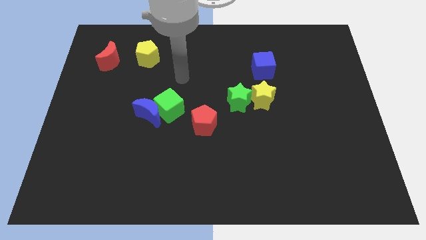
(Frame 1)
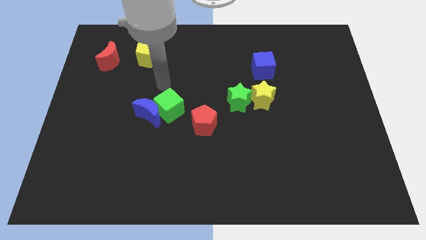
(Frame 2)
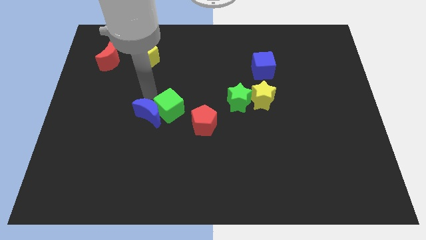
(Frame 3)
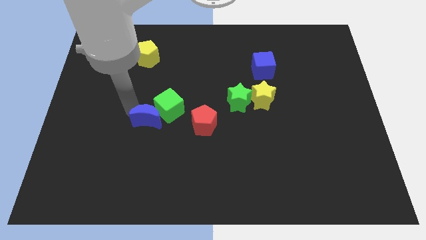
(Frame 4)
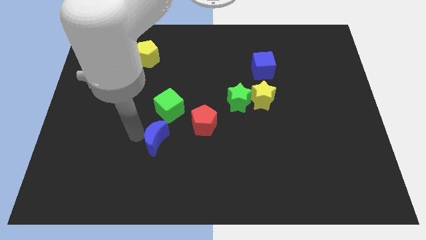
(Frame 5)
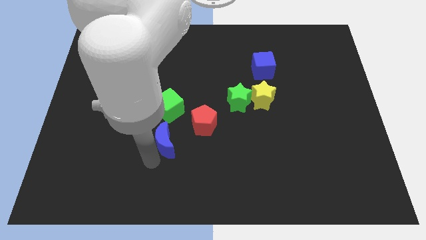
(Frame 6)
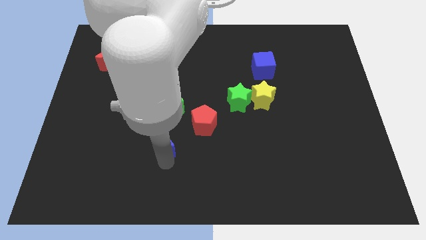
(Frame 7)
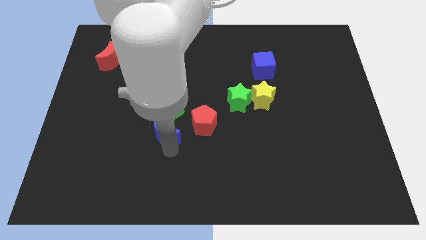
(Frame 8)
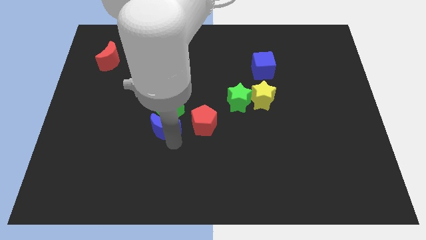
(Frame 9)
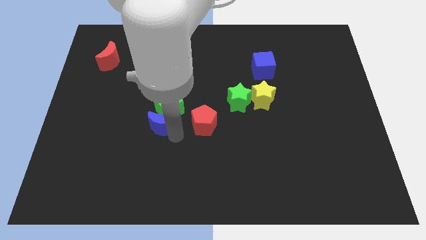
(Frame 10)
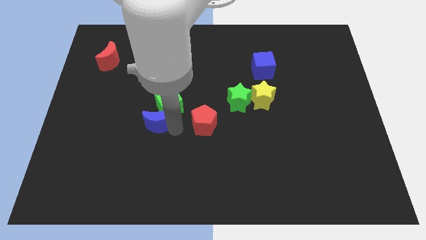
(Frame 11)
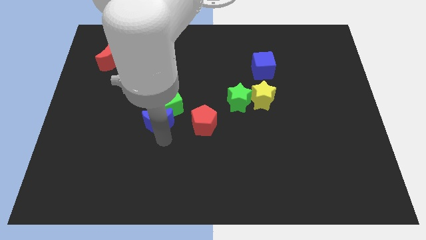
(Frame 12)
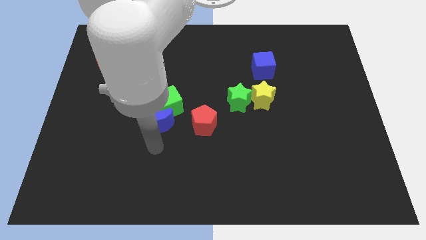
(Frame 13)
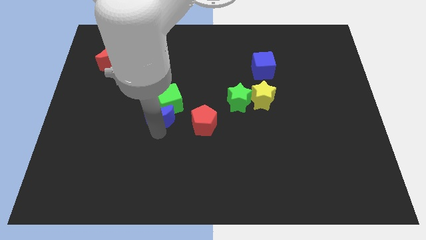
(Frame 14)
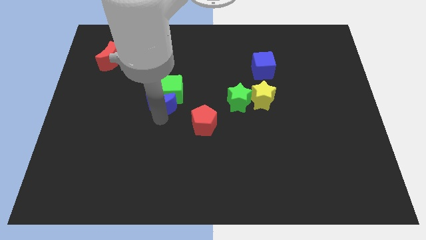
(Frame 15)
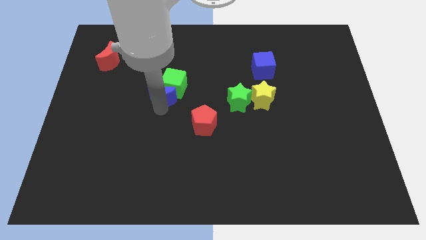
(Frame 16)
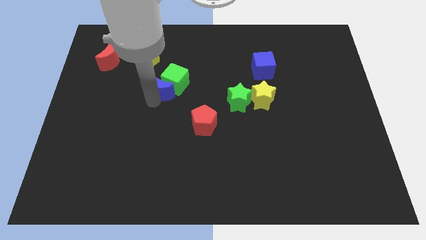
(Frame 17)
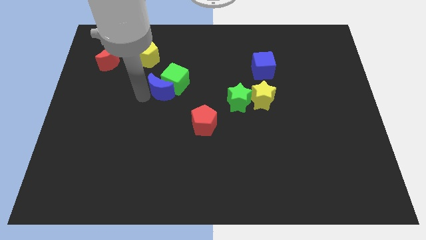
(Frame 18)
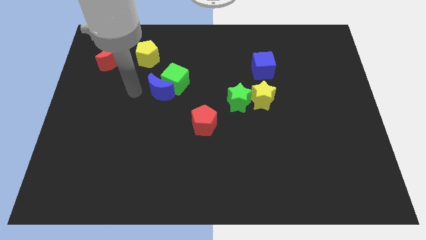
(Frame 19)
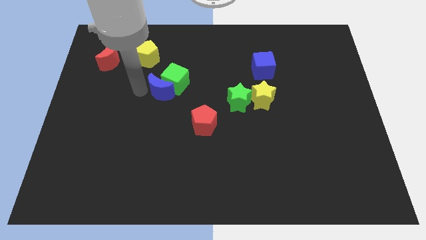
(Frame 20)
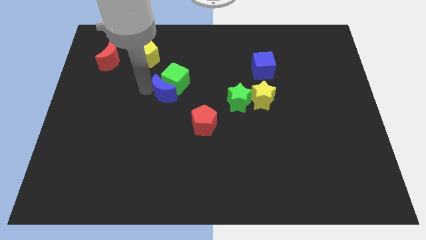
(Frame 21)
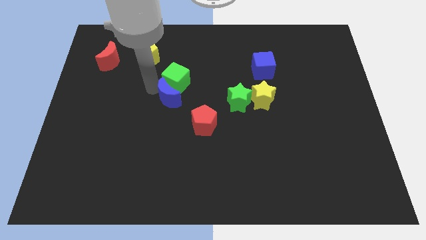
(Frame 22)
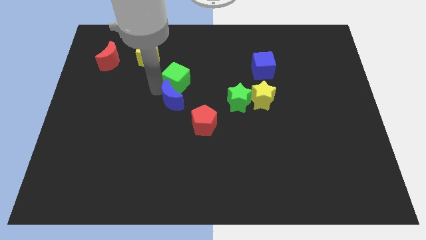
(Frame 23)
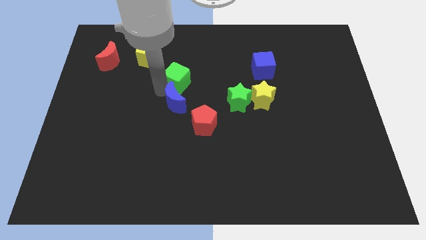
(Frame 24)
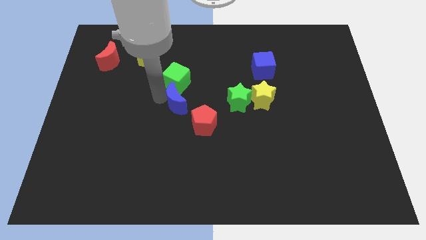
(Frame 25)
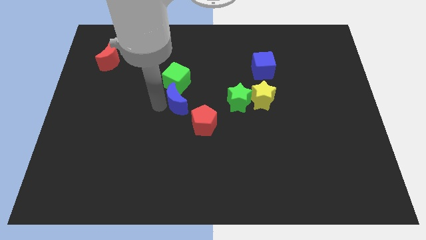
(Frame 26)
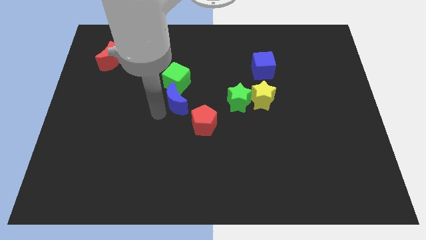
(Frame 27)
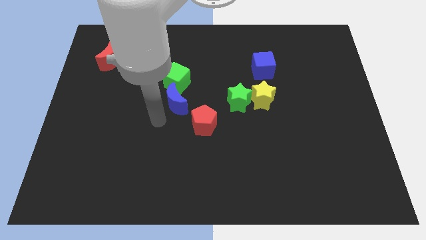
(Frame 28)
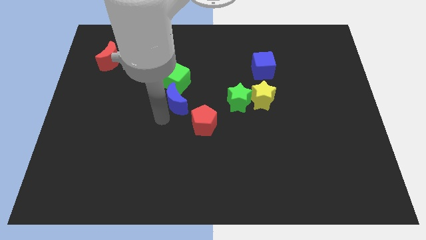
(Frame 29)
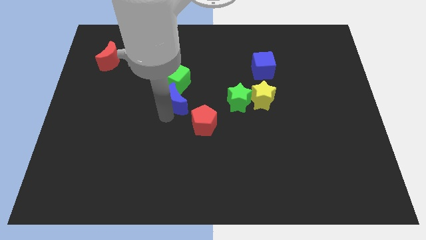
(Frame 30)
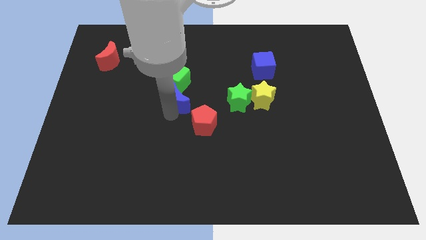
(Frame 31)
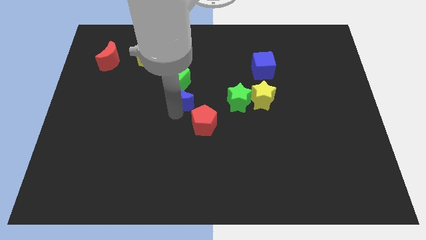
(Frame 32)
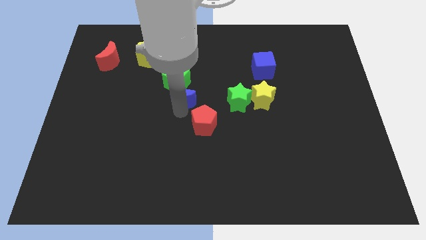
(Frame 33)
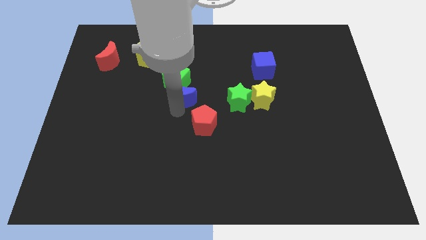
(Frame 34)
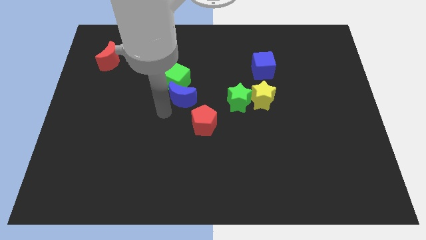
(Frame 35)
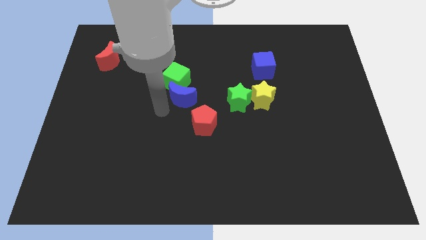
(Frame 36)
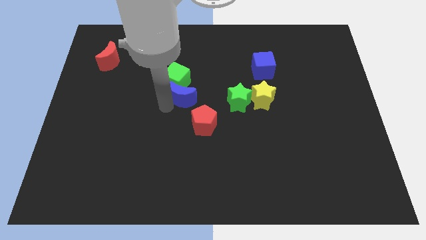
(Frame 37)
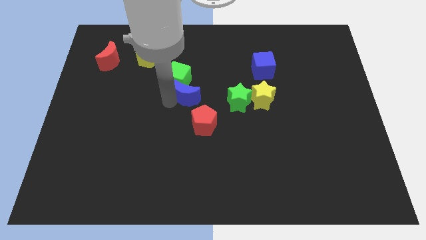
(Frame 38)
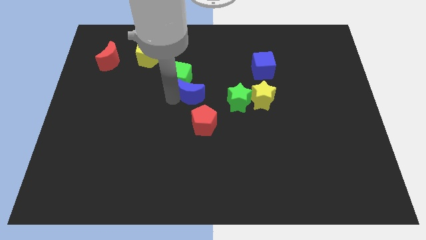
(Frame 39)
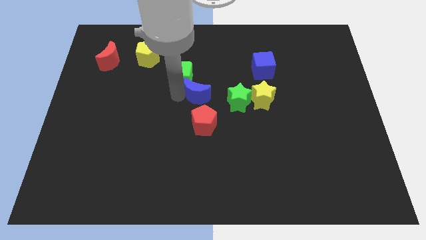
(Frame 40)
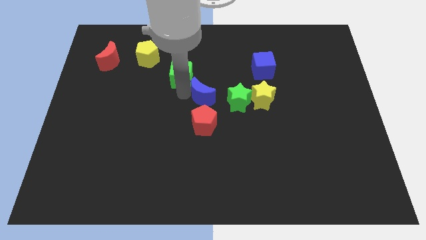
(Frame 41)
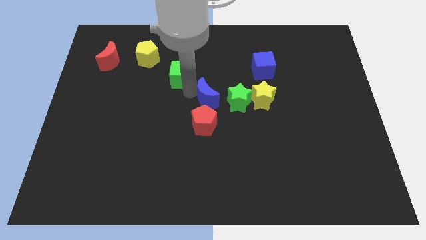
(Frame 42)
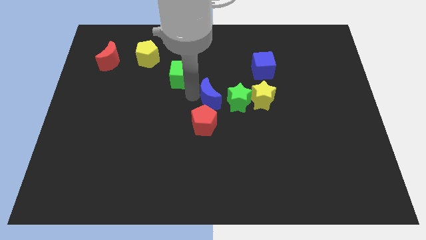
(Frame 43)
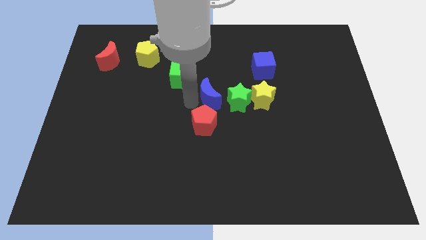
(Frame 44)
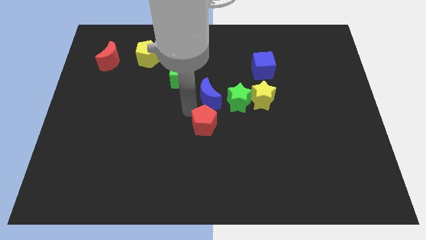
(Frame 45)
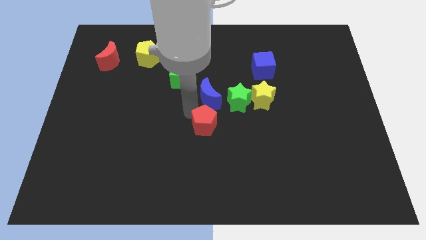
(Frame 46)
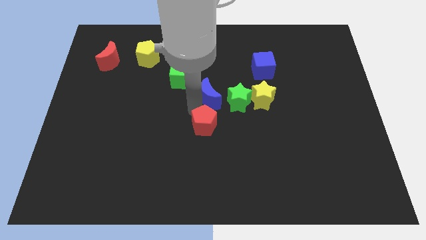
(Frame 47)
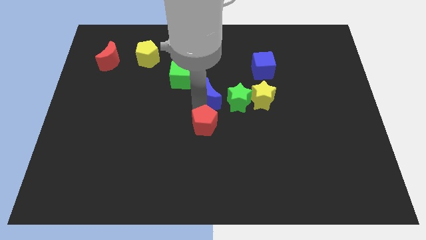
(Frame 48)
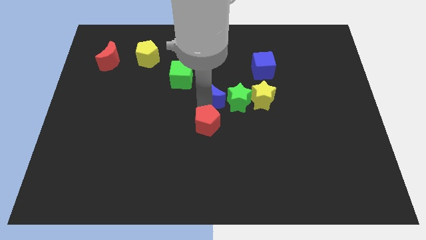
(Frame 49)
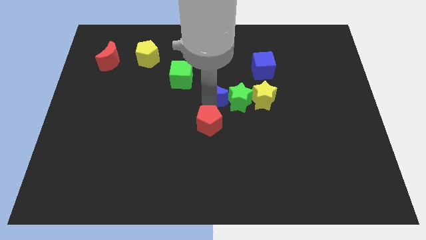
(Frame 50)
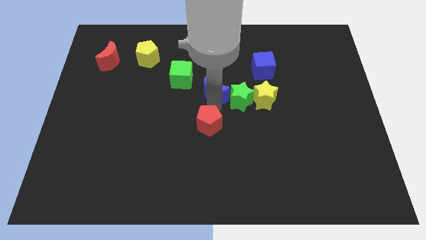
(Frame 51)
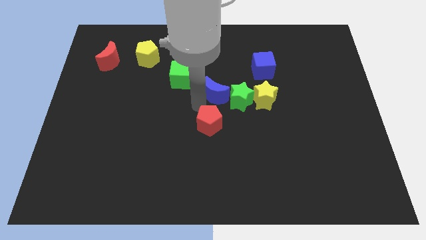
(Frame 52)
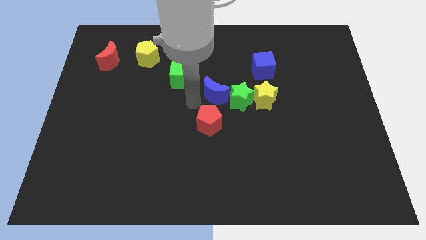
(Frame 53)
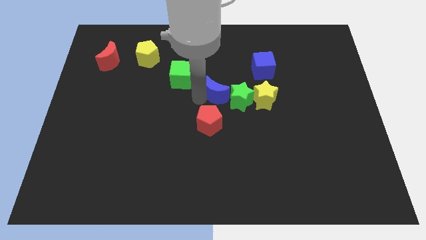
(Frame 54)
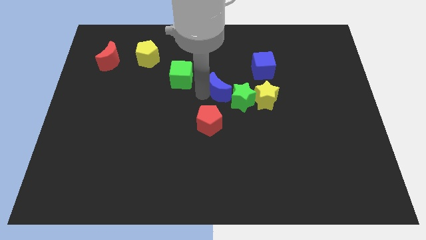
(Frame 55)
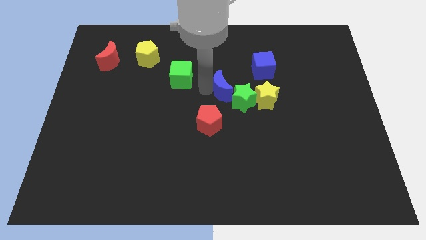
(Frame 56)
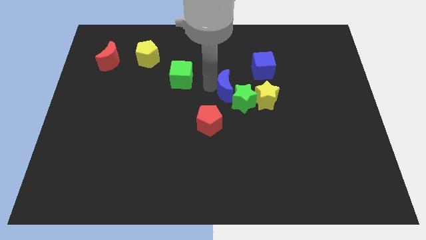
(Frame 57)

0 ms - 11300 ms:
slide the blue moon diagonally up and to the left of the yellow star

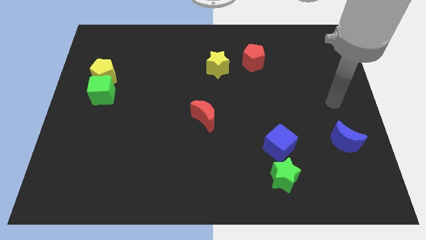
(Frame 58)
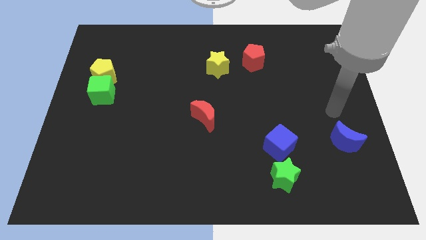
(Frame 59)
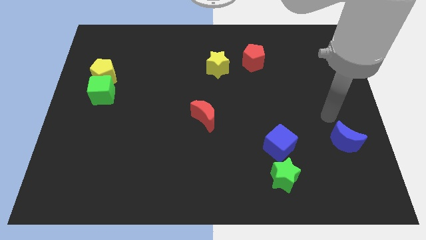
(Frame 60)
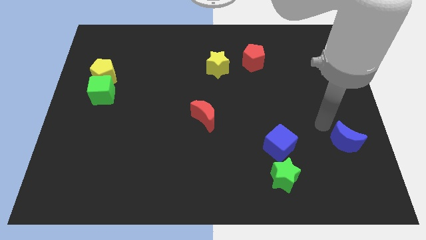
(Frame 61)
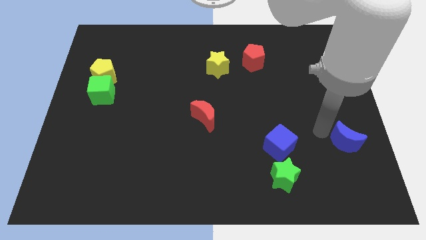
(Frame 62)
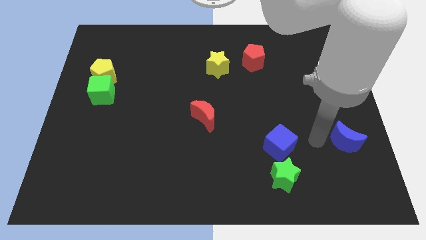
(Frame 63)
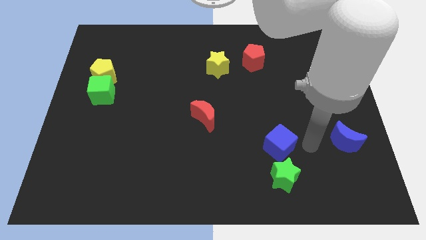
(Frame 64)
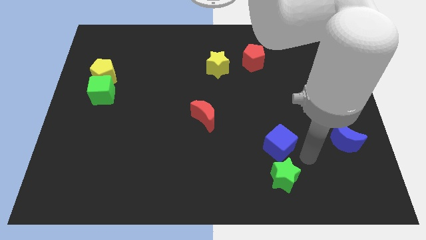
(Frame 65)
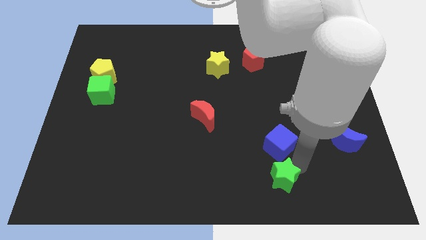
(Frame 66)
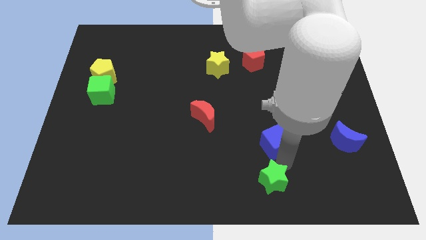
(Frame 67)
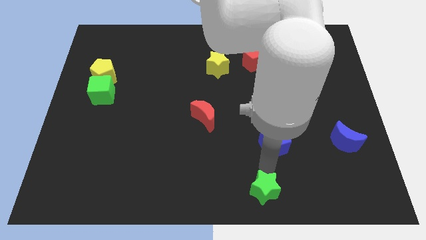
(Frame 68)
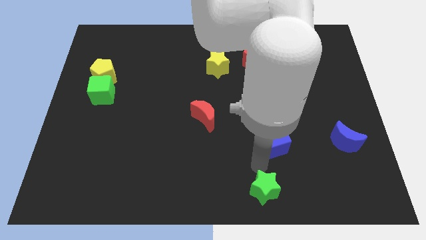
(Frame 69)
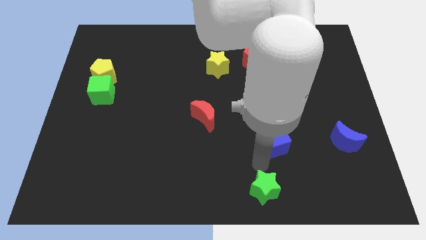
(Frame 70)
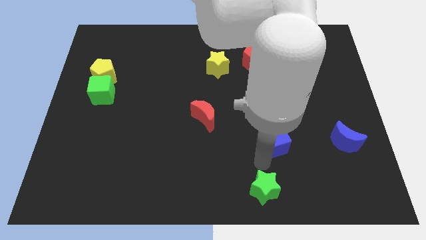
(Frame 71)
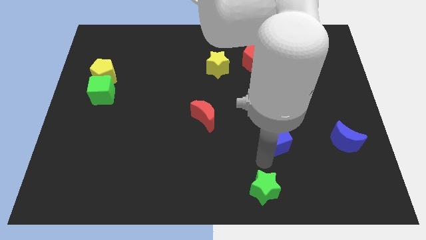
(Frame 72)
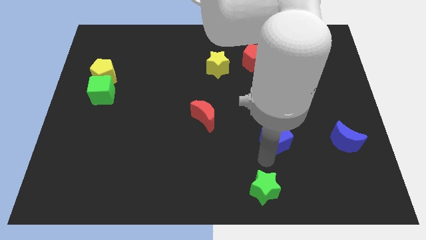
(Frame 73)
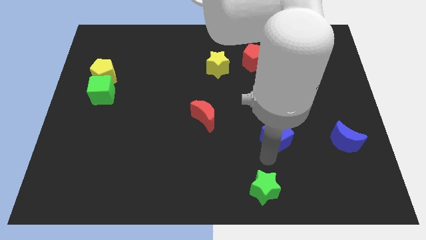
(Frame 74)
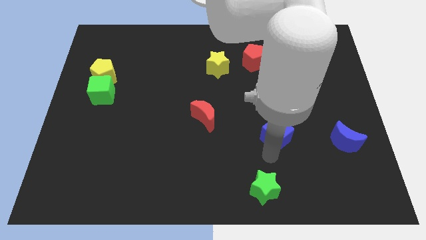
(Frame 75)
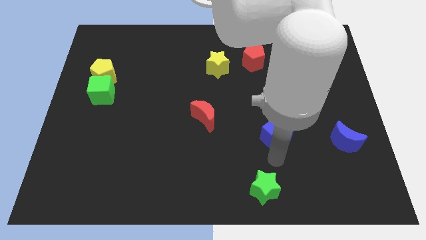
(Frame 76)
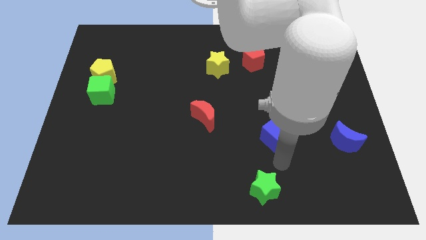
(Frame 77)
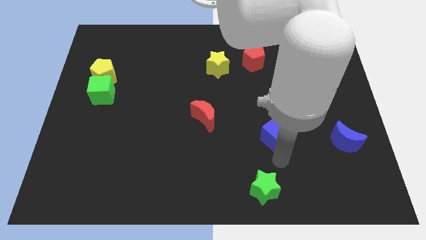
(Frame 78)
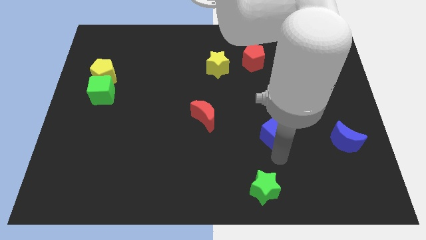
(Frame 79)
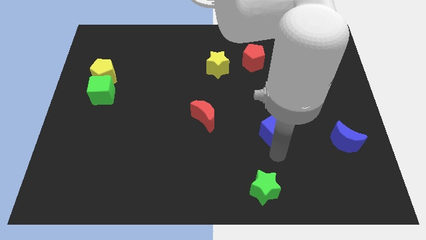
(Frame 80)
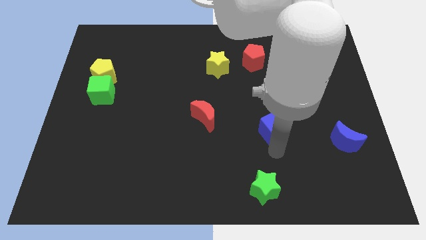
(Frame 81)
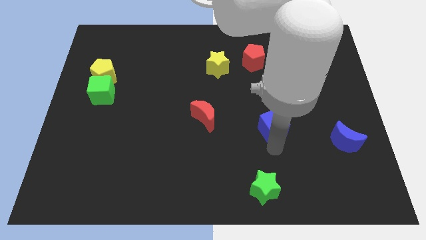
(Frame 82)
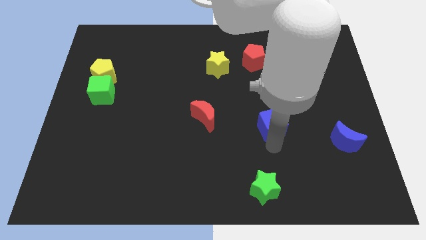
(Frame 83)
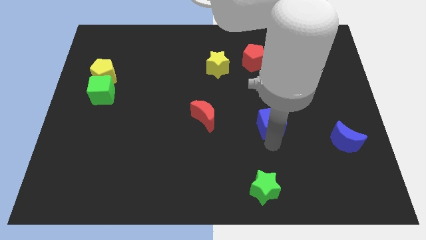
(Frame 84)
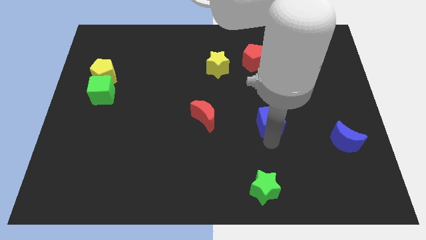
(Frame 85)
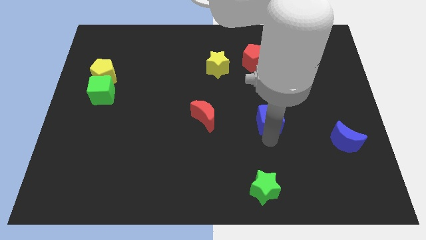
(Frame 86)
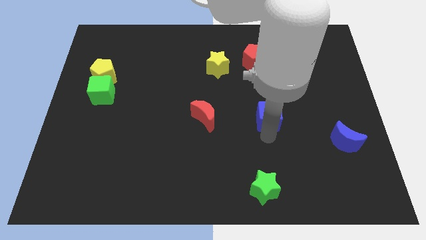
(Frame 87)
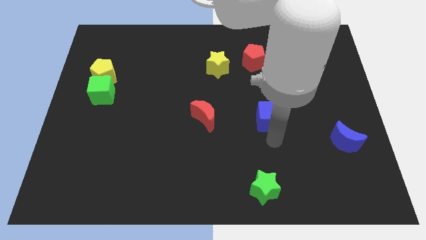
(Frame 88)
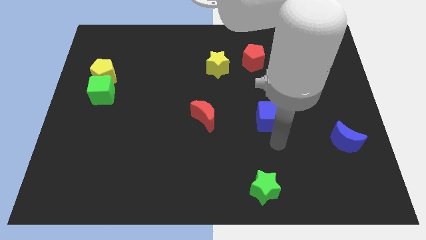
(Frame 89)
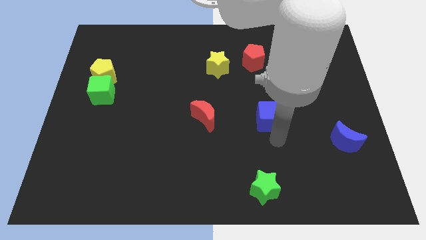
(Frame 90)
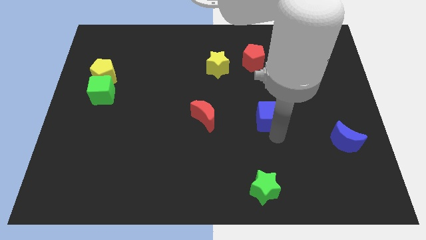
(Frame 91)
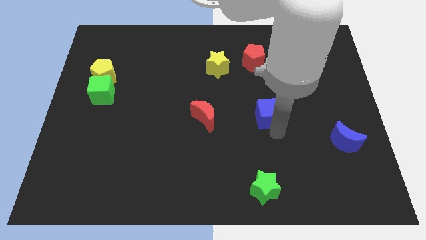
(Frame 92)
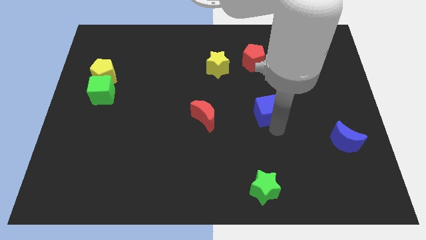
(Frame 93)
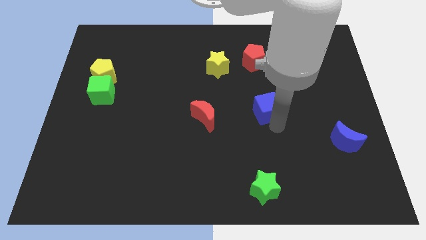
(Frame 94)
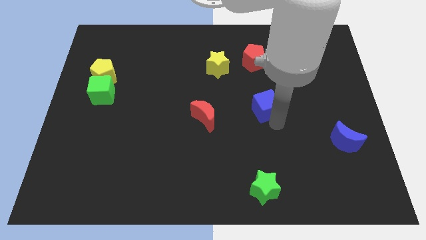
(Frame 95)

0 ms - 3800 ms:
push the blue cube below the red pentagon
